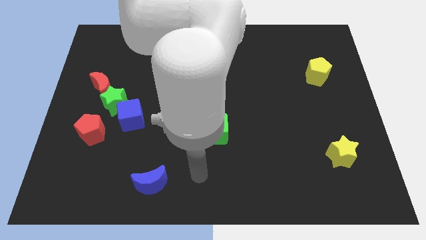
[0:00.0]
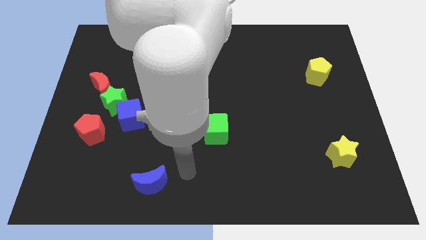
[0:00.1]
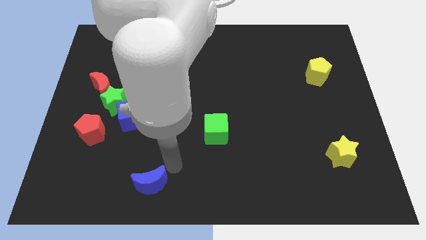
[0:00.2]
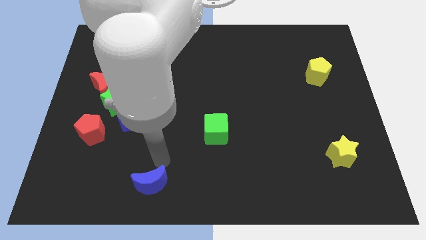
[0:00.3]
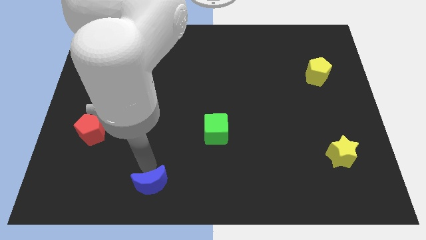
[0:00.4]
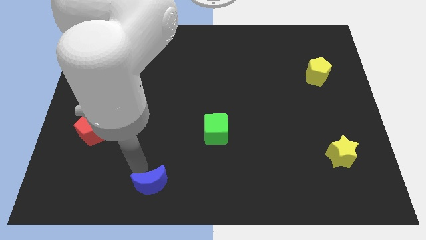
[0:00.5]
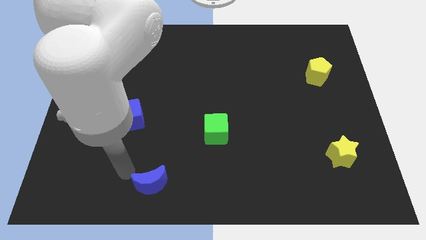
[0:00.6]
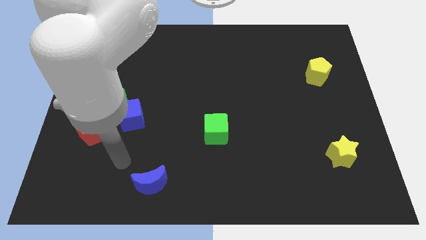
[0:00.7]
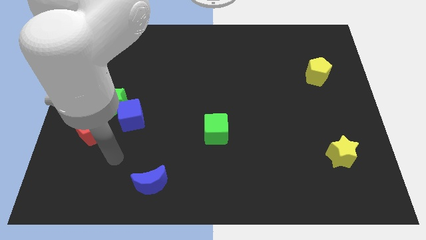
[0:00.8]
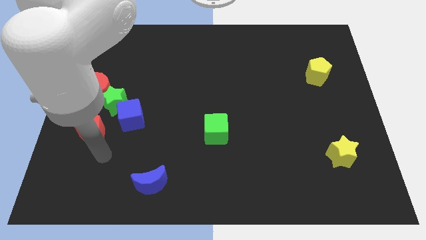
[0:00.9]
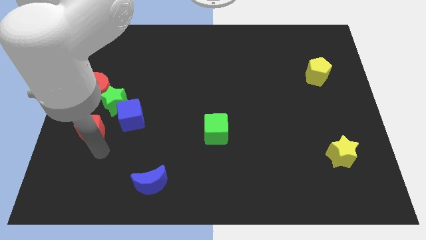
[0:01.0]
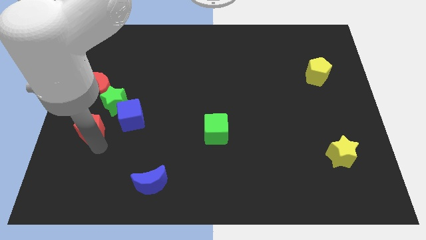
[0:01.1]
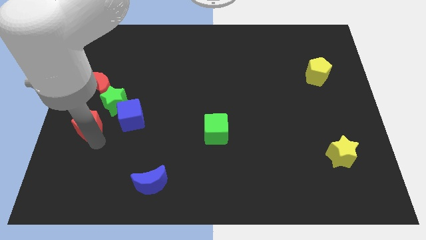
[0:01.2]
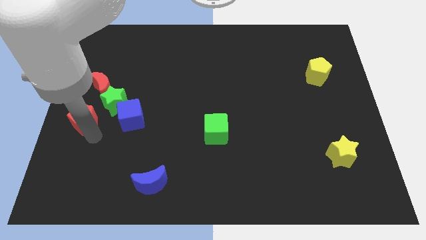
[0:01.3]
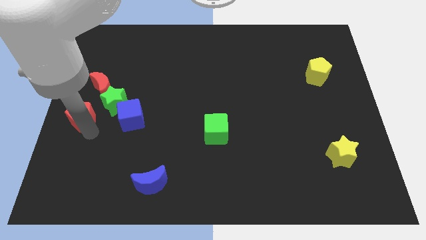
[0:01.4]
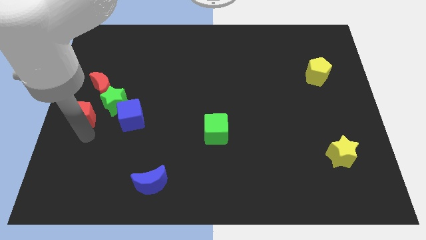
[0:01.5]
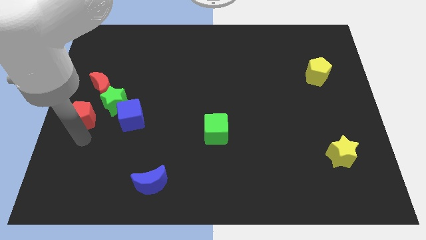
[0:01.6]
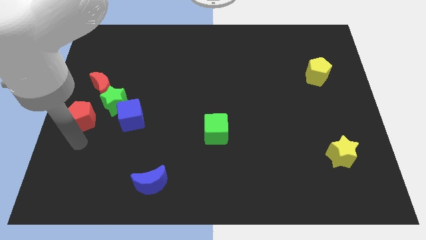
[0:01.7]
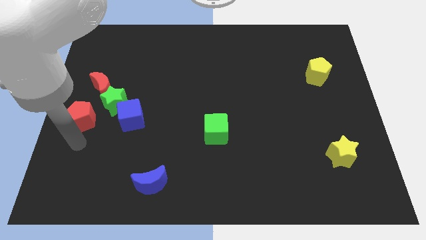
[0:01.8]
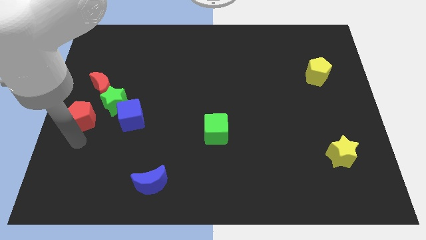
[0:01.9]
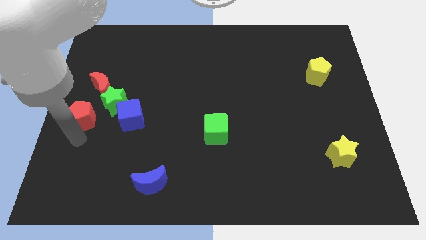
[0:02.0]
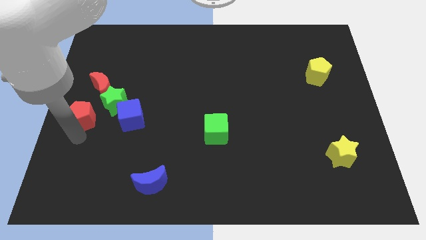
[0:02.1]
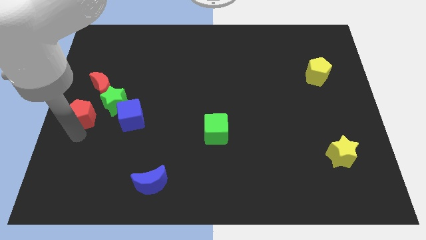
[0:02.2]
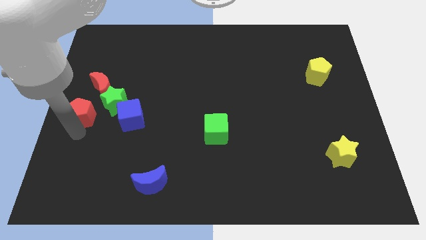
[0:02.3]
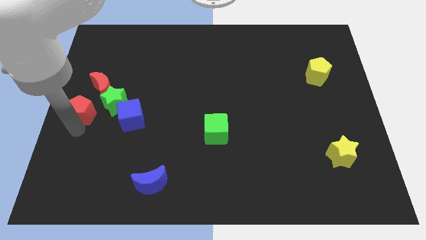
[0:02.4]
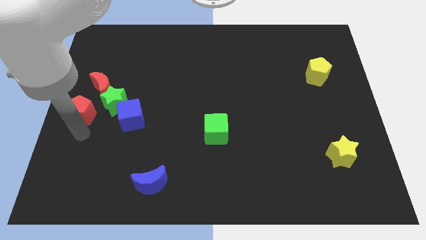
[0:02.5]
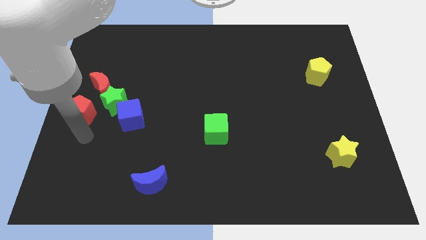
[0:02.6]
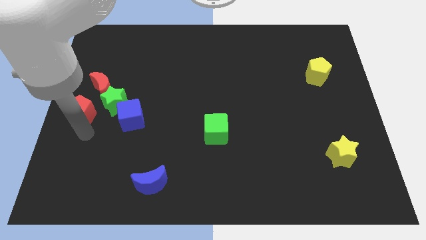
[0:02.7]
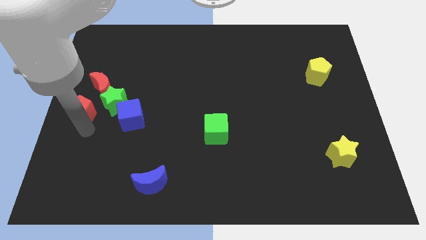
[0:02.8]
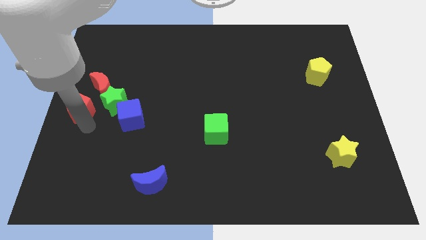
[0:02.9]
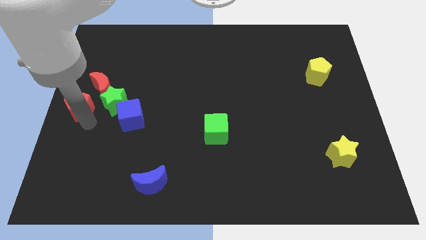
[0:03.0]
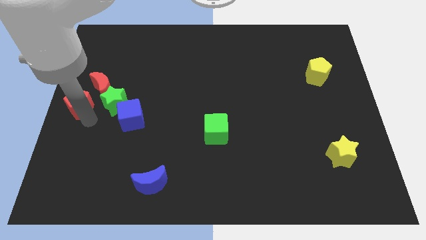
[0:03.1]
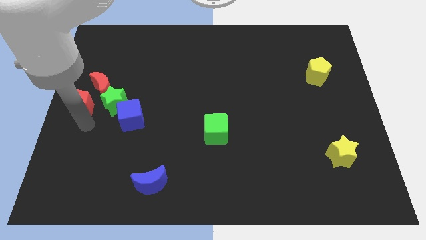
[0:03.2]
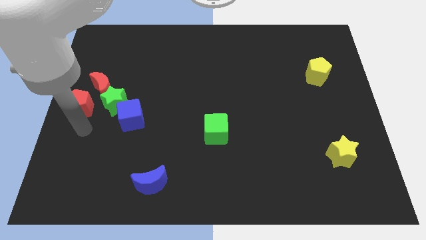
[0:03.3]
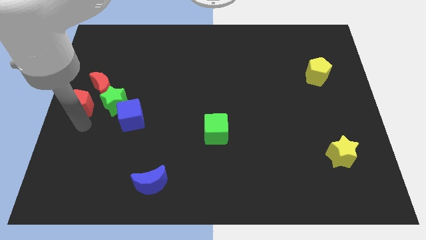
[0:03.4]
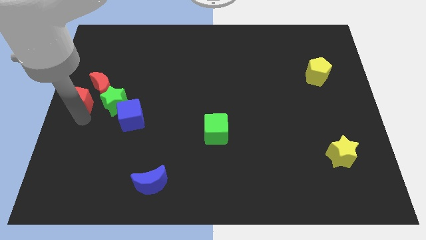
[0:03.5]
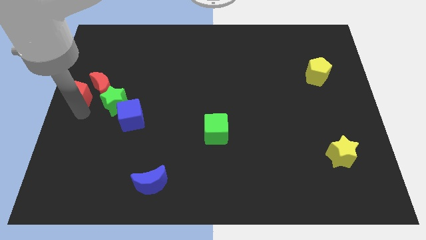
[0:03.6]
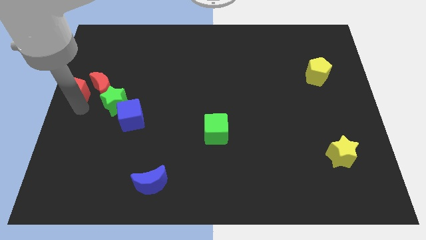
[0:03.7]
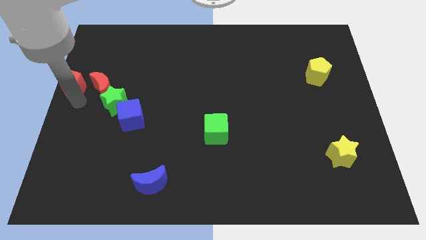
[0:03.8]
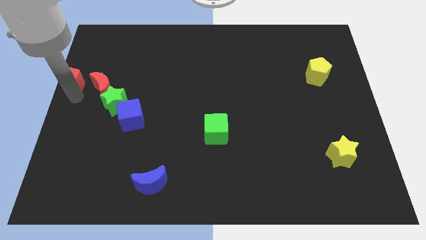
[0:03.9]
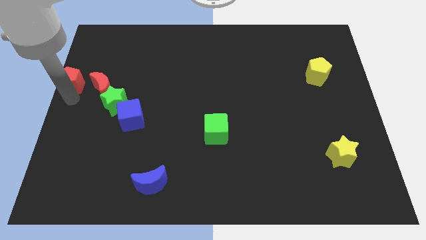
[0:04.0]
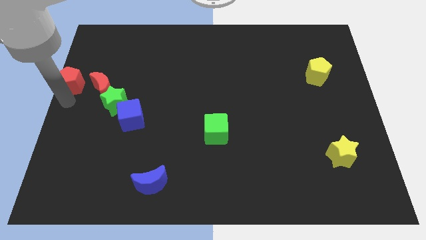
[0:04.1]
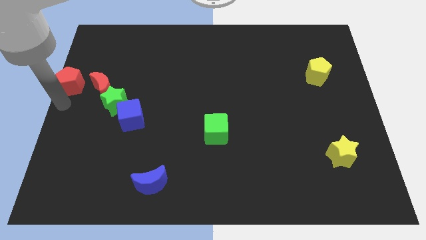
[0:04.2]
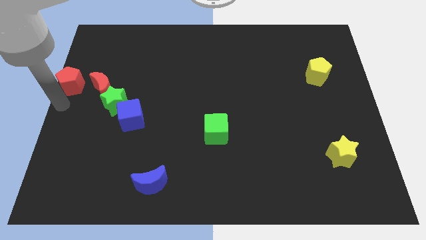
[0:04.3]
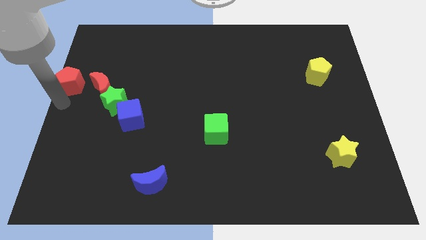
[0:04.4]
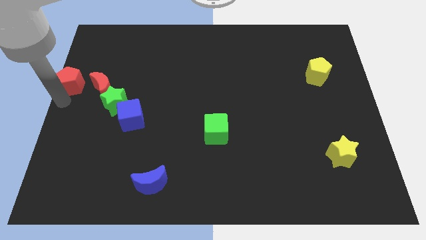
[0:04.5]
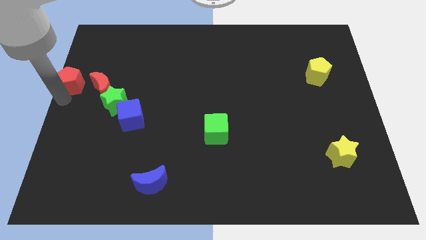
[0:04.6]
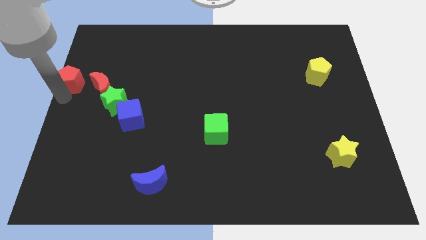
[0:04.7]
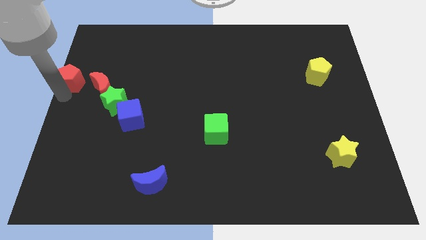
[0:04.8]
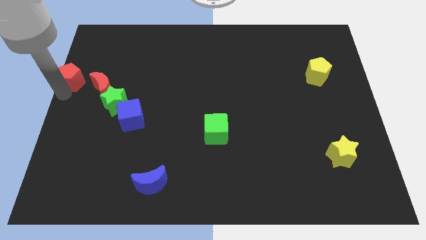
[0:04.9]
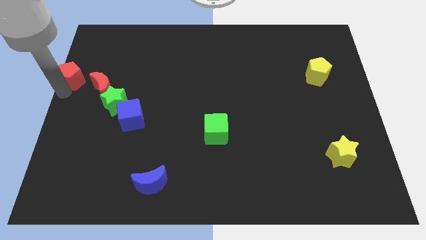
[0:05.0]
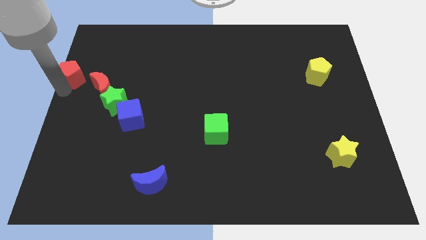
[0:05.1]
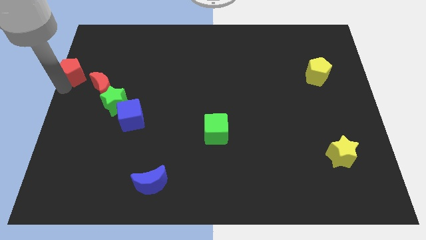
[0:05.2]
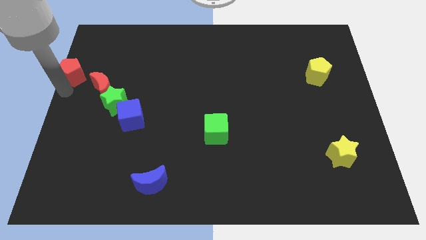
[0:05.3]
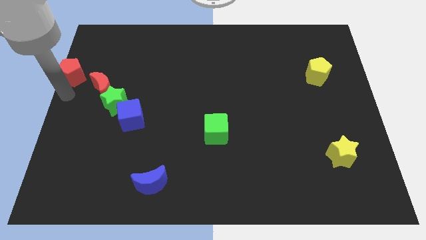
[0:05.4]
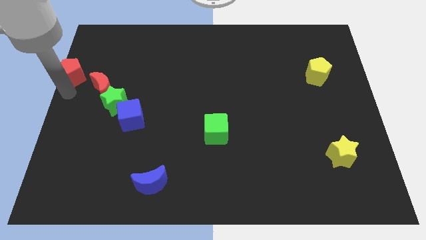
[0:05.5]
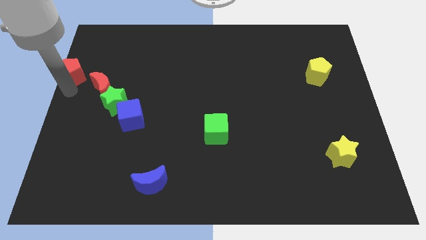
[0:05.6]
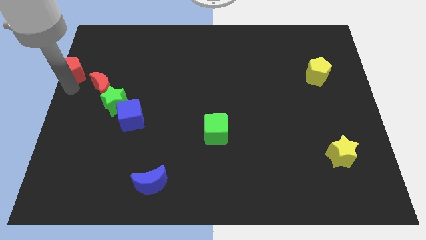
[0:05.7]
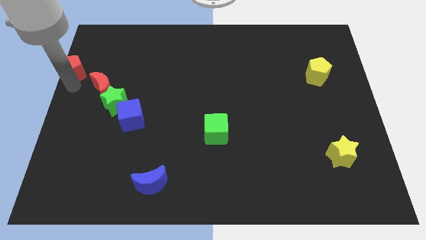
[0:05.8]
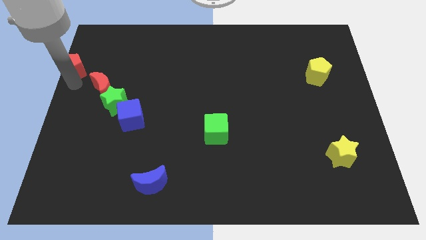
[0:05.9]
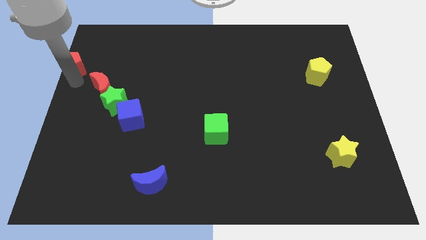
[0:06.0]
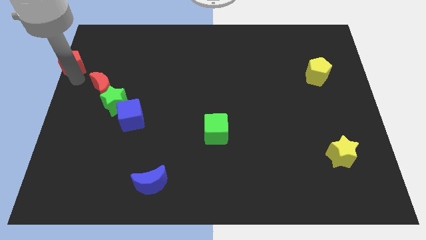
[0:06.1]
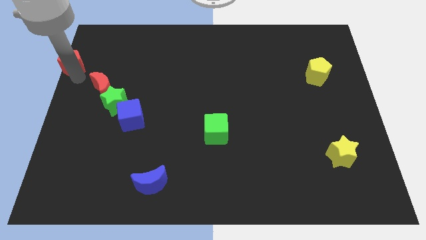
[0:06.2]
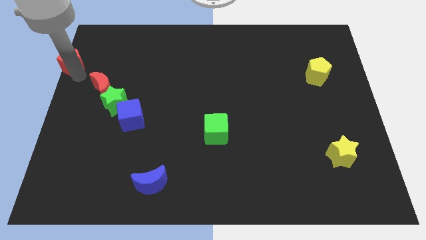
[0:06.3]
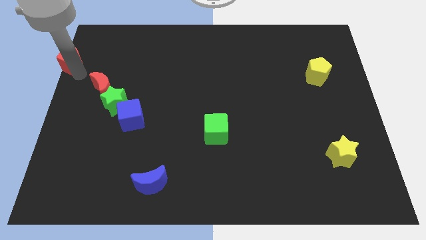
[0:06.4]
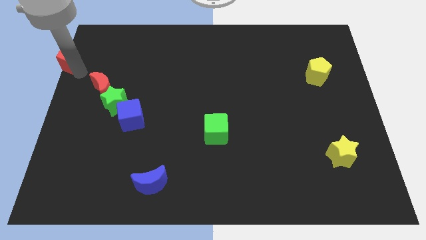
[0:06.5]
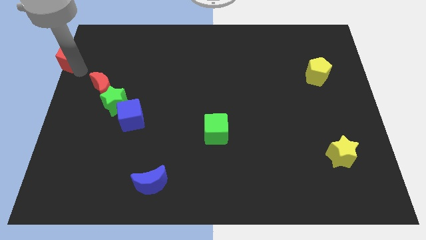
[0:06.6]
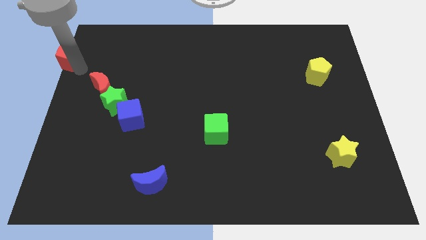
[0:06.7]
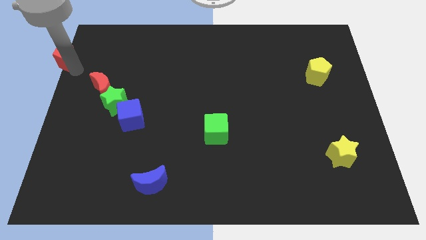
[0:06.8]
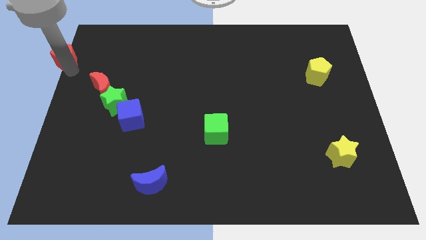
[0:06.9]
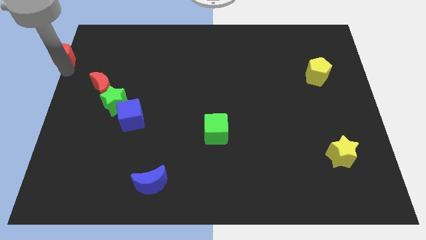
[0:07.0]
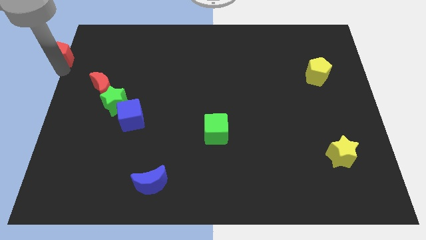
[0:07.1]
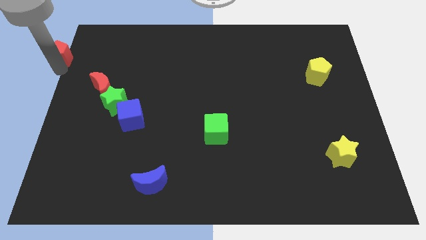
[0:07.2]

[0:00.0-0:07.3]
push the red pentagon to the top left corner
